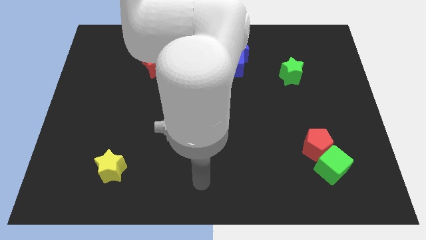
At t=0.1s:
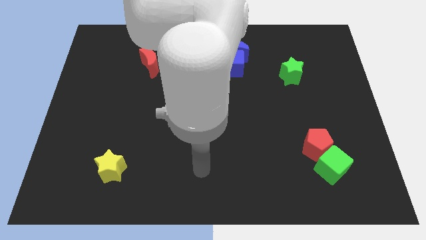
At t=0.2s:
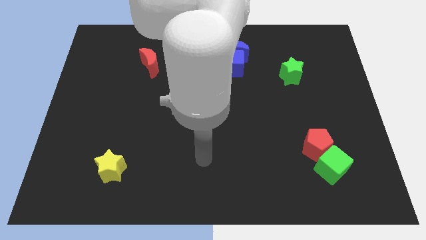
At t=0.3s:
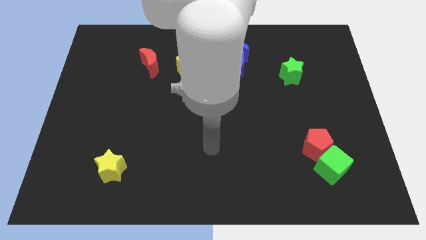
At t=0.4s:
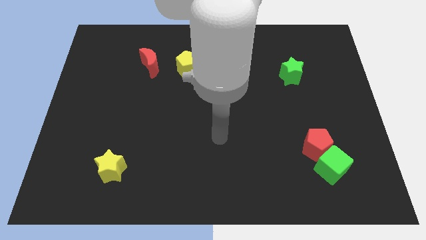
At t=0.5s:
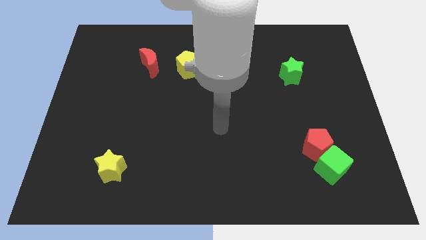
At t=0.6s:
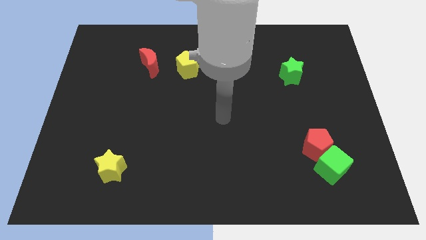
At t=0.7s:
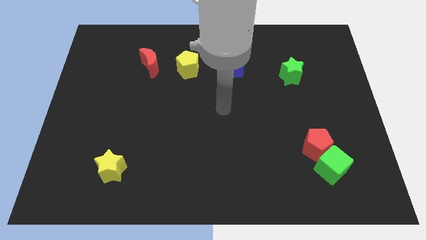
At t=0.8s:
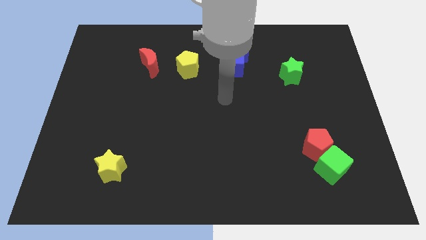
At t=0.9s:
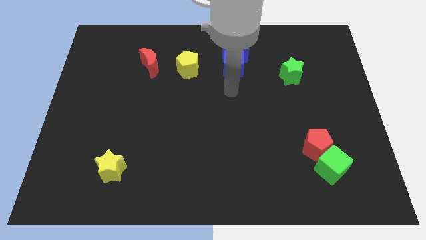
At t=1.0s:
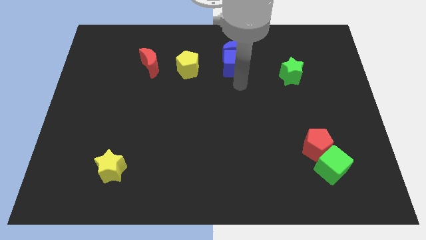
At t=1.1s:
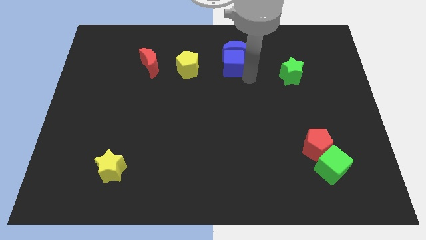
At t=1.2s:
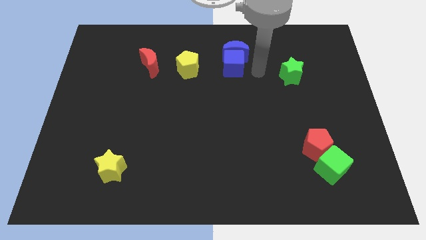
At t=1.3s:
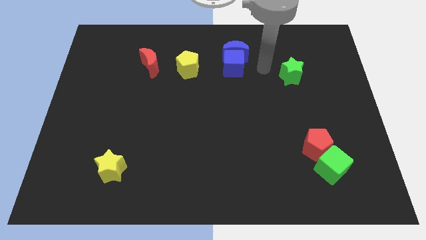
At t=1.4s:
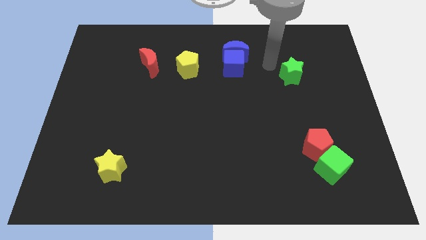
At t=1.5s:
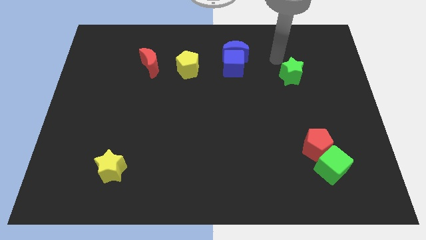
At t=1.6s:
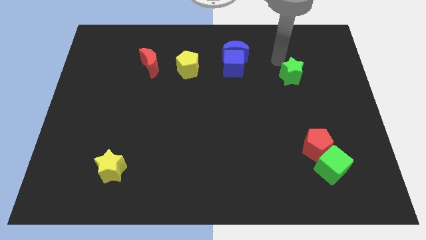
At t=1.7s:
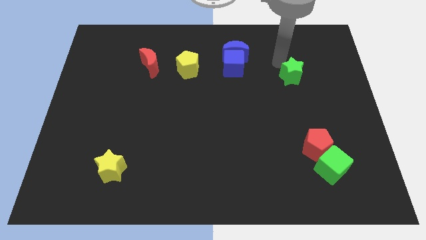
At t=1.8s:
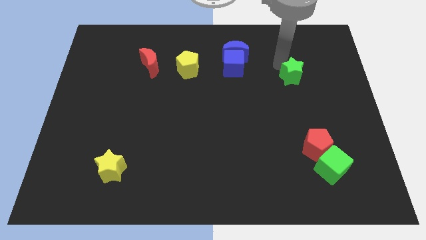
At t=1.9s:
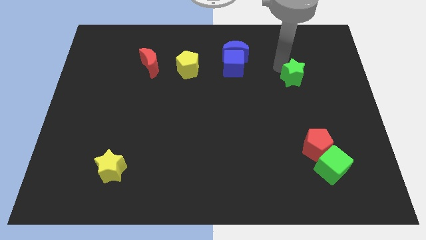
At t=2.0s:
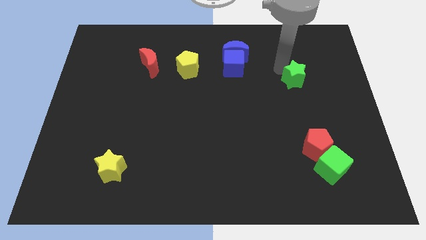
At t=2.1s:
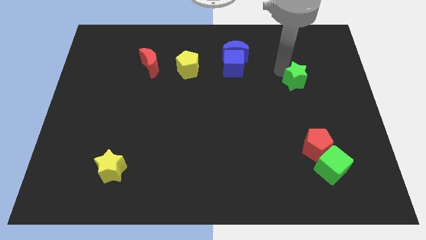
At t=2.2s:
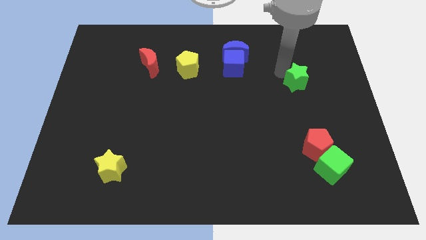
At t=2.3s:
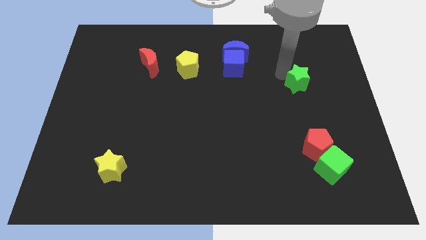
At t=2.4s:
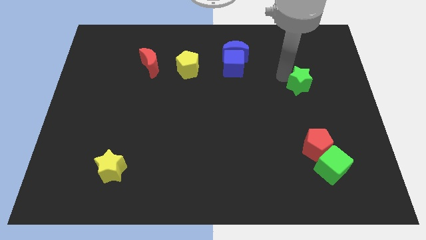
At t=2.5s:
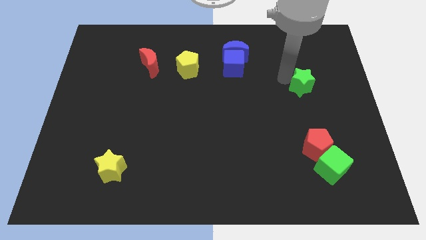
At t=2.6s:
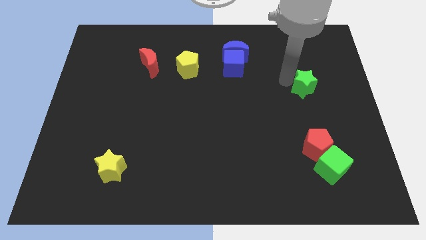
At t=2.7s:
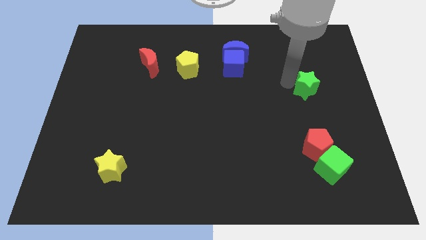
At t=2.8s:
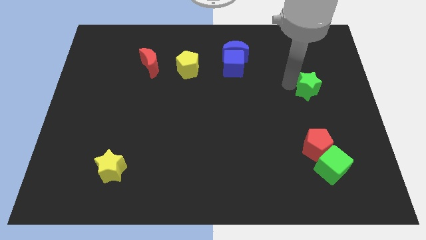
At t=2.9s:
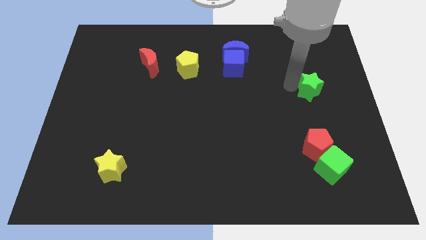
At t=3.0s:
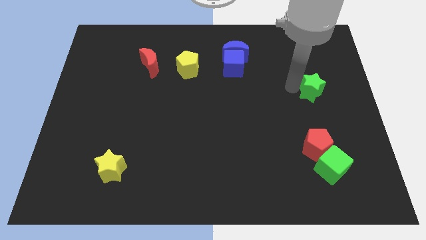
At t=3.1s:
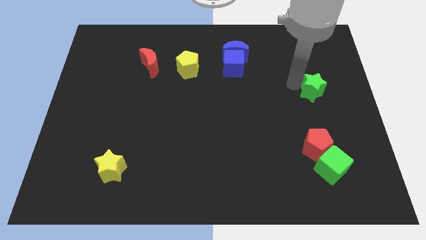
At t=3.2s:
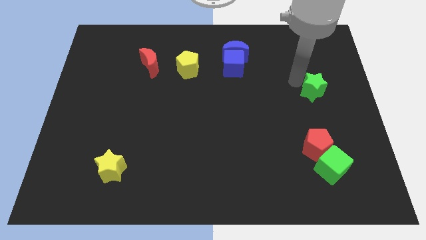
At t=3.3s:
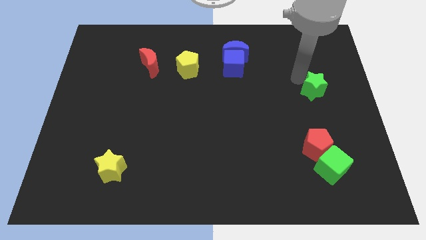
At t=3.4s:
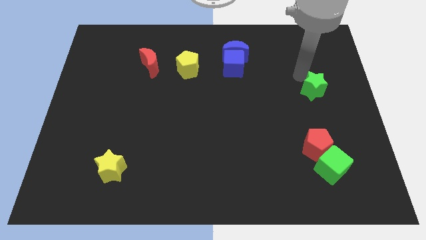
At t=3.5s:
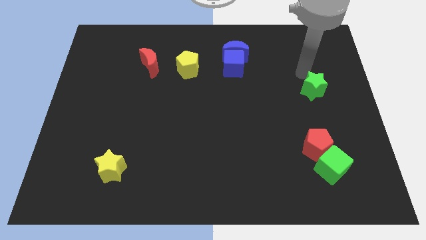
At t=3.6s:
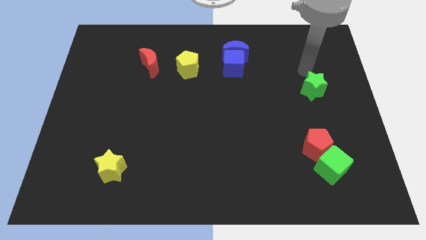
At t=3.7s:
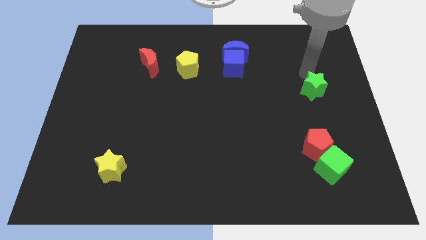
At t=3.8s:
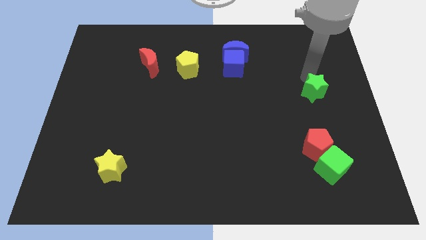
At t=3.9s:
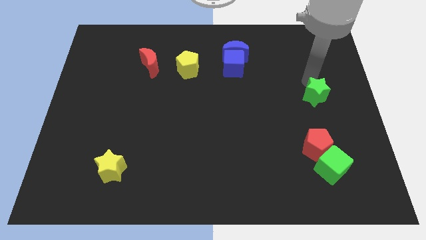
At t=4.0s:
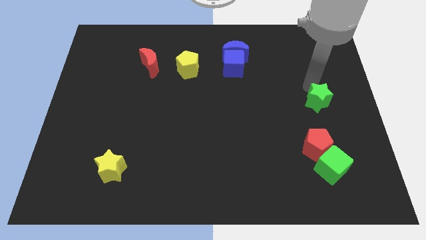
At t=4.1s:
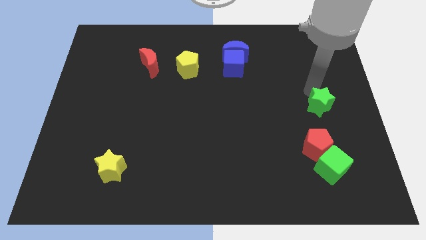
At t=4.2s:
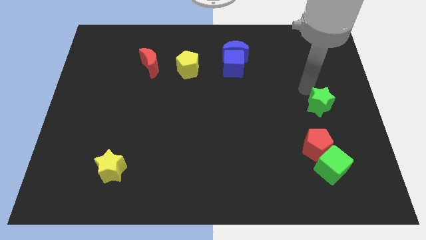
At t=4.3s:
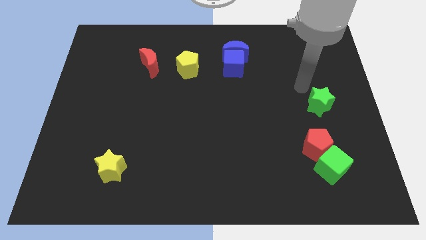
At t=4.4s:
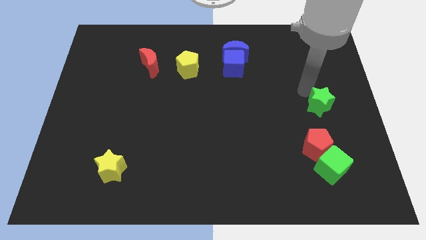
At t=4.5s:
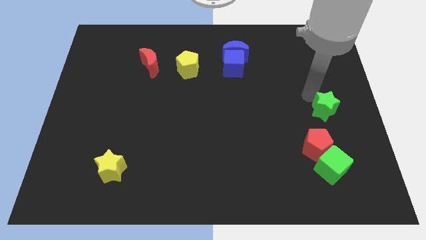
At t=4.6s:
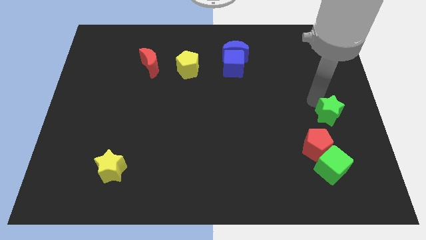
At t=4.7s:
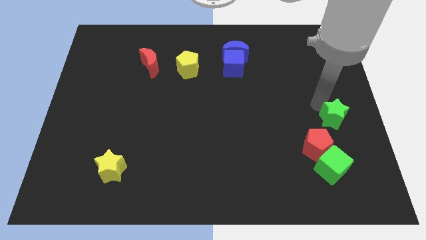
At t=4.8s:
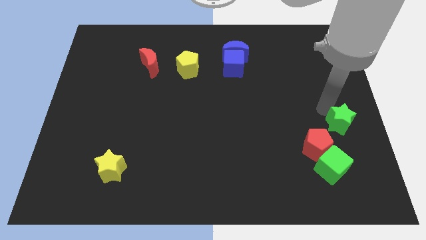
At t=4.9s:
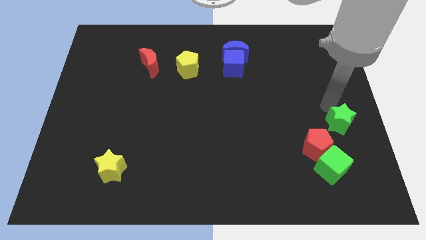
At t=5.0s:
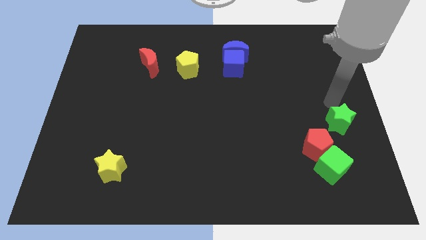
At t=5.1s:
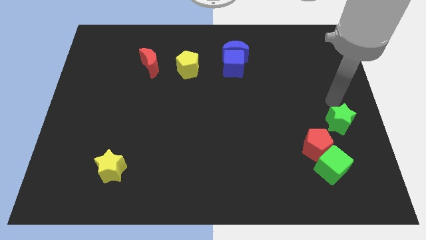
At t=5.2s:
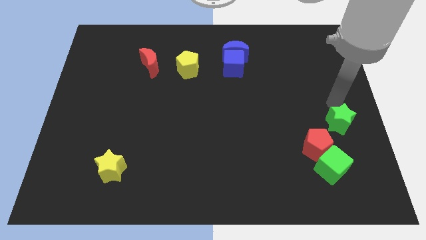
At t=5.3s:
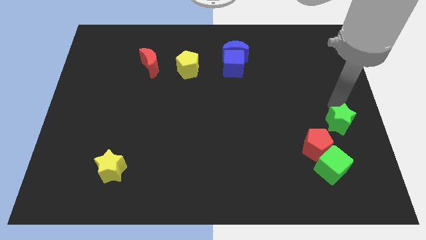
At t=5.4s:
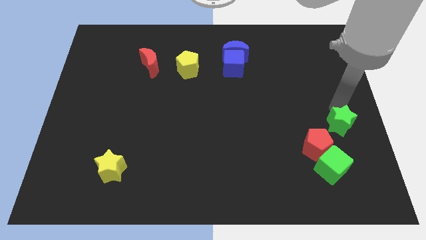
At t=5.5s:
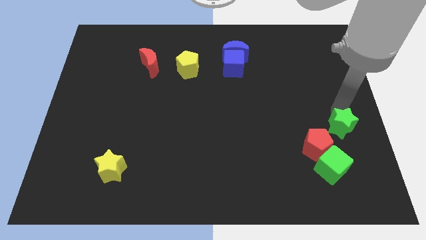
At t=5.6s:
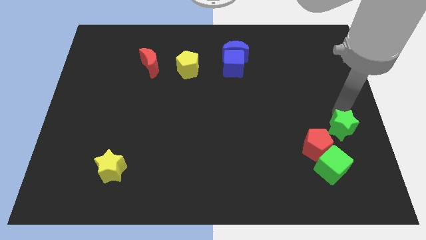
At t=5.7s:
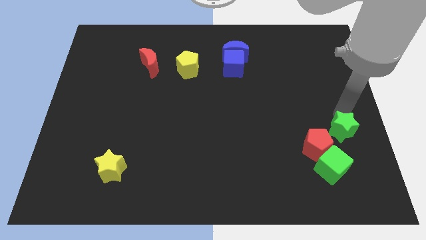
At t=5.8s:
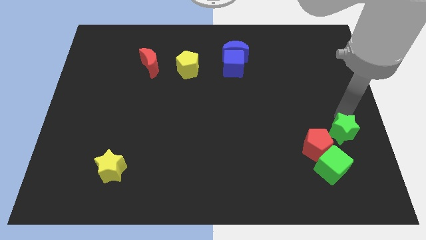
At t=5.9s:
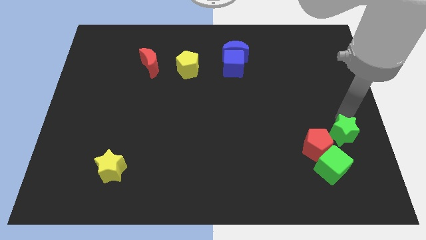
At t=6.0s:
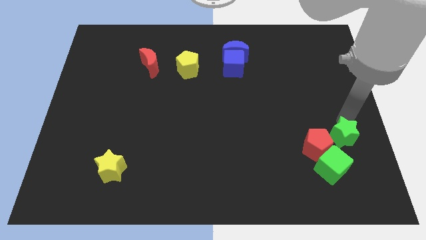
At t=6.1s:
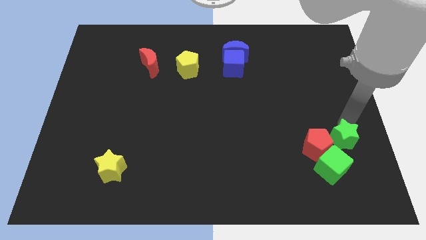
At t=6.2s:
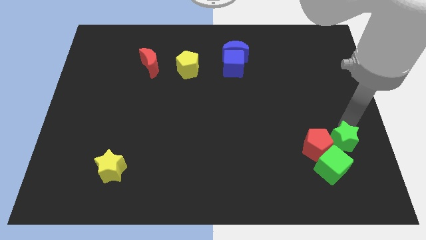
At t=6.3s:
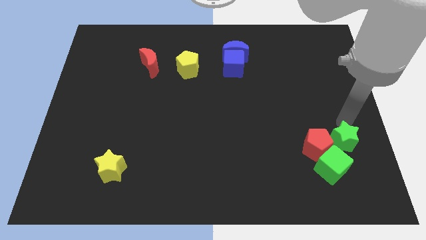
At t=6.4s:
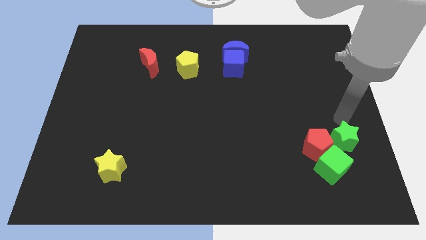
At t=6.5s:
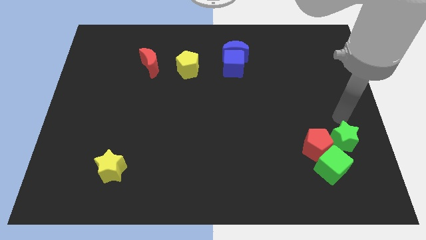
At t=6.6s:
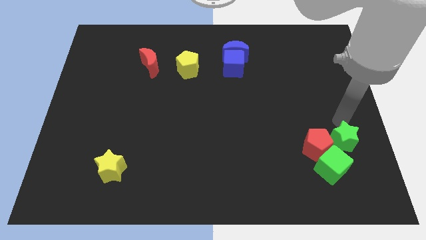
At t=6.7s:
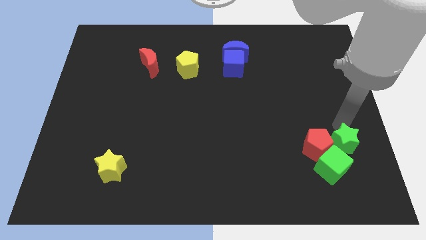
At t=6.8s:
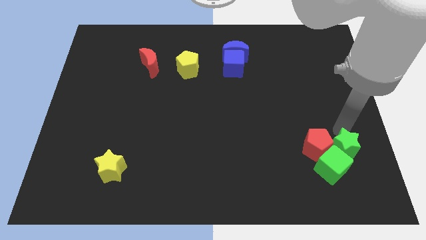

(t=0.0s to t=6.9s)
move the green star to the green cube

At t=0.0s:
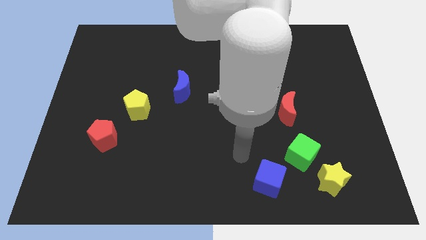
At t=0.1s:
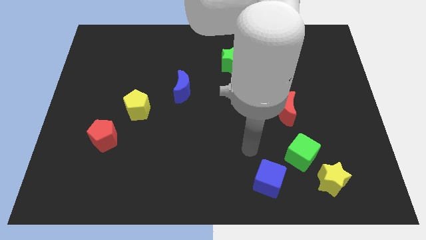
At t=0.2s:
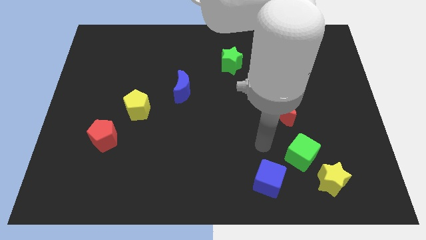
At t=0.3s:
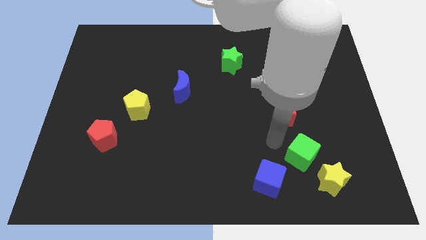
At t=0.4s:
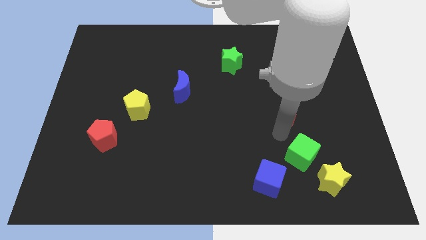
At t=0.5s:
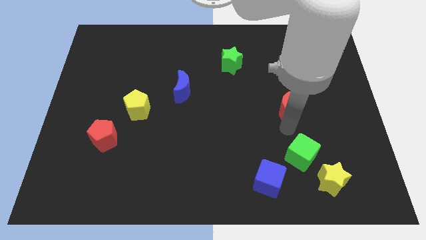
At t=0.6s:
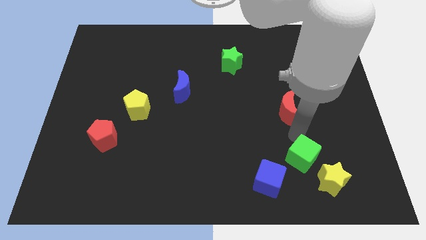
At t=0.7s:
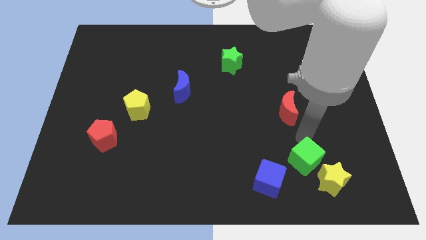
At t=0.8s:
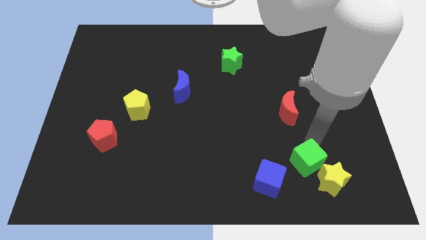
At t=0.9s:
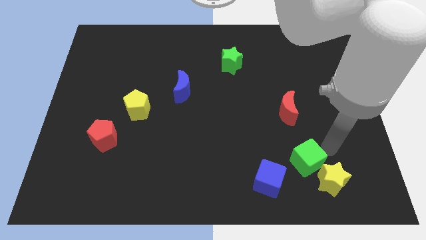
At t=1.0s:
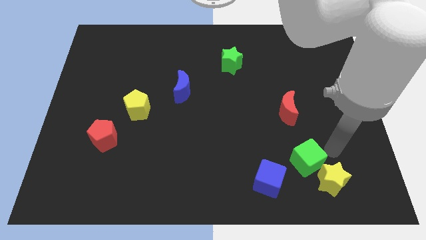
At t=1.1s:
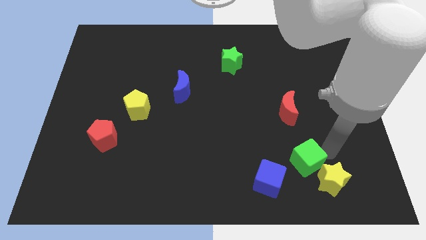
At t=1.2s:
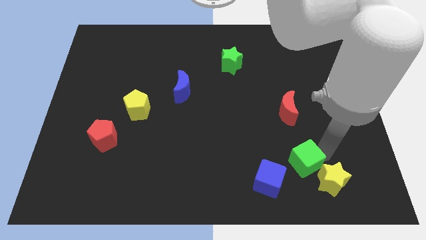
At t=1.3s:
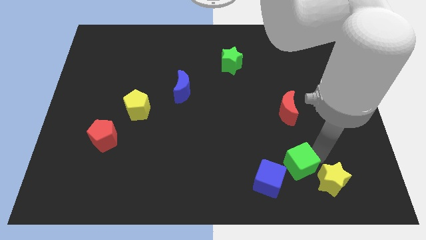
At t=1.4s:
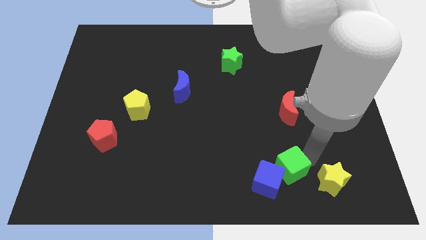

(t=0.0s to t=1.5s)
slide the green cube close to the blue cube
